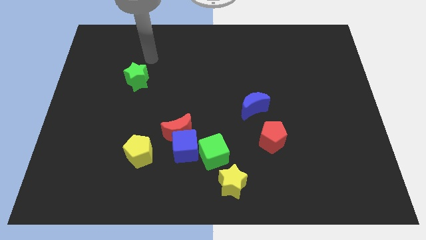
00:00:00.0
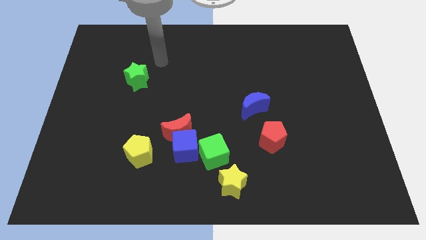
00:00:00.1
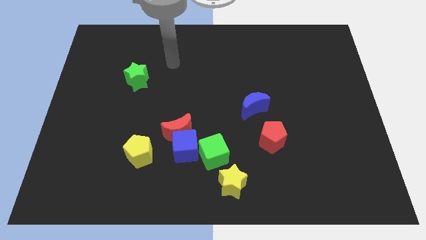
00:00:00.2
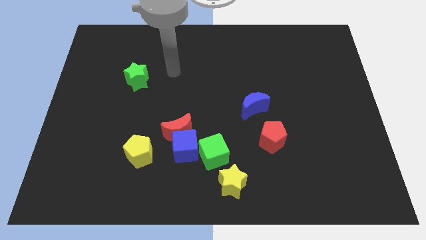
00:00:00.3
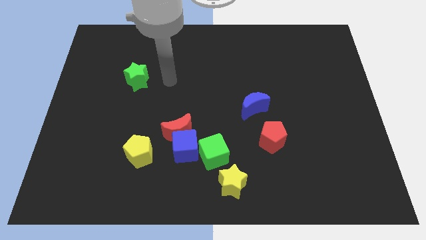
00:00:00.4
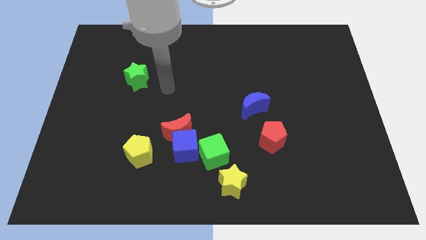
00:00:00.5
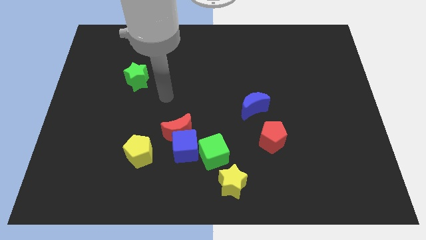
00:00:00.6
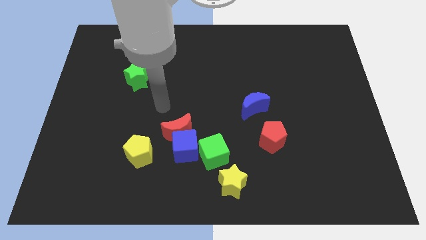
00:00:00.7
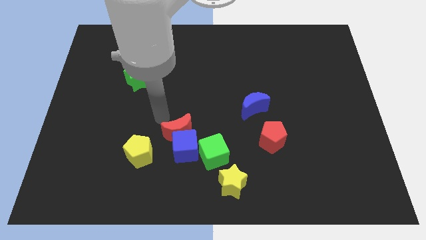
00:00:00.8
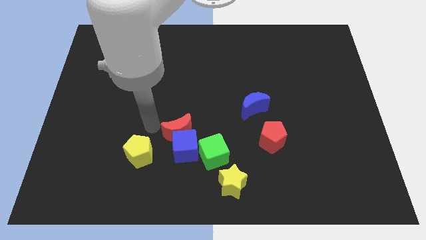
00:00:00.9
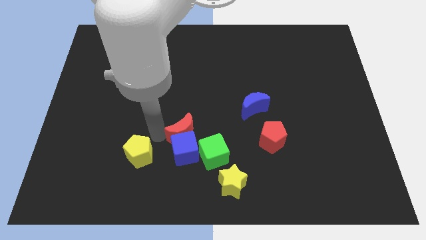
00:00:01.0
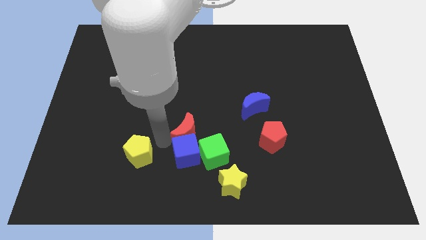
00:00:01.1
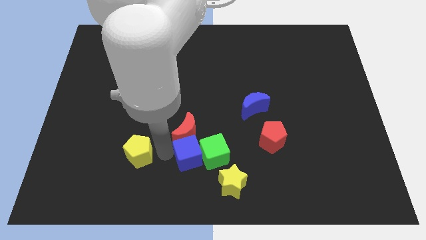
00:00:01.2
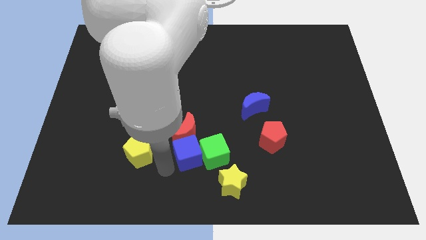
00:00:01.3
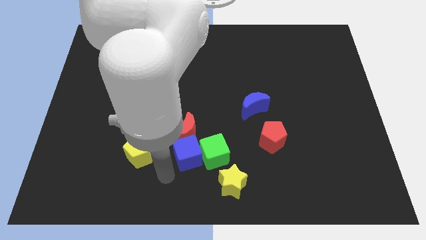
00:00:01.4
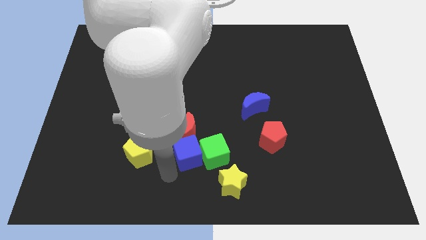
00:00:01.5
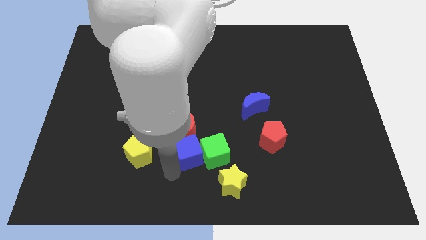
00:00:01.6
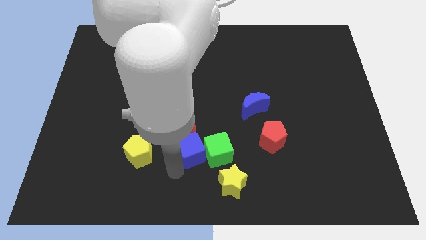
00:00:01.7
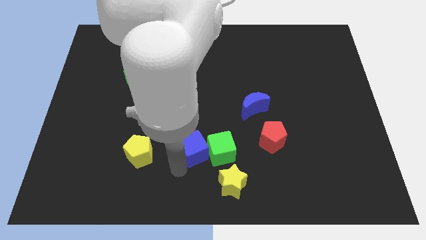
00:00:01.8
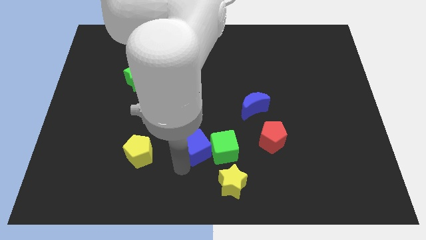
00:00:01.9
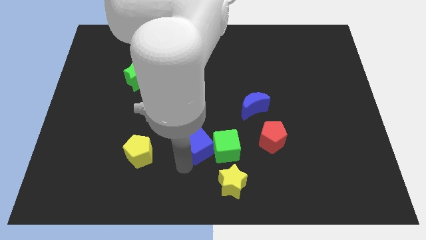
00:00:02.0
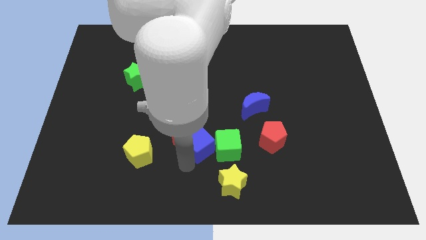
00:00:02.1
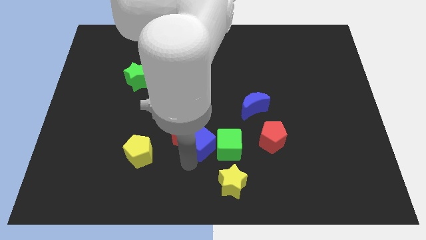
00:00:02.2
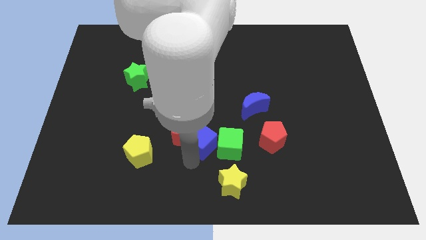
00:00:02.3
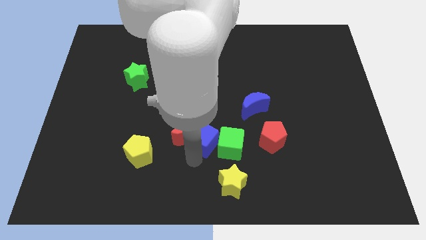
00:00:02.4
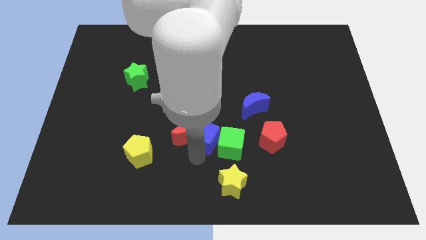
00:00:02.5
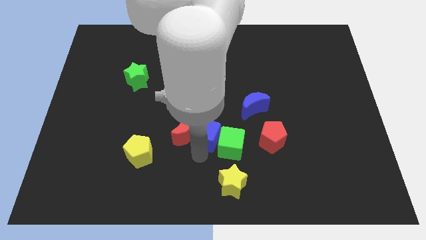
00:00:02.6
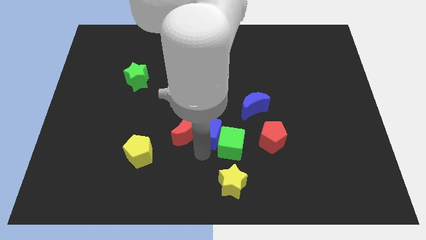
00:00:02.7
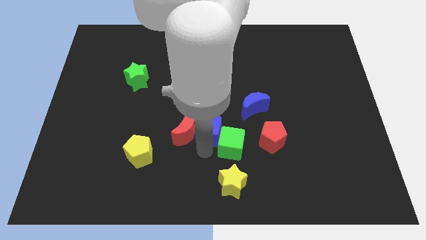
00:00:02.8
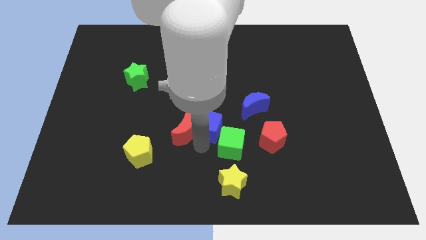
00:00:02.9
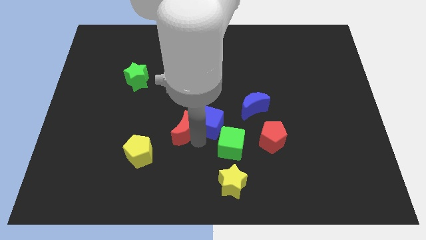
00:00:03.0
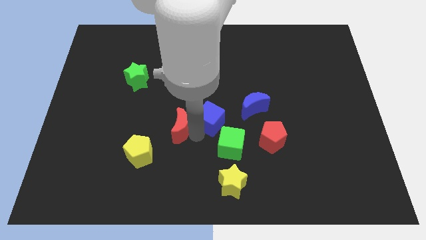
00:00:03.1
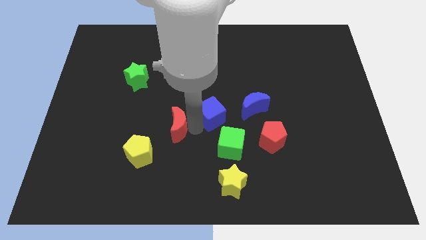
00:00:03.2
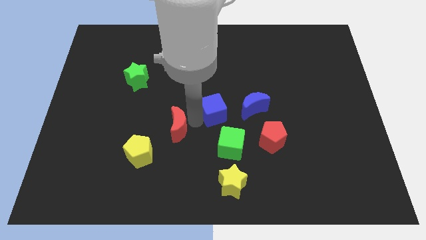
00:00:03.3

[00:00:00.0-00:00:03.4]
pull the blue cube apart from the group of blocks

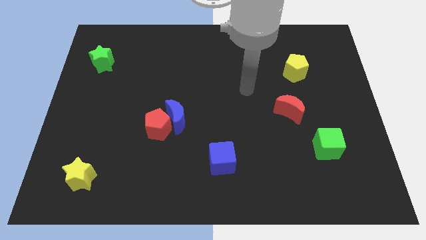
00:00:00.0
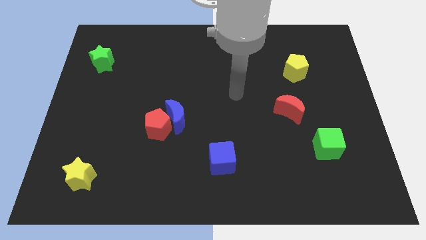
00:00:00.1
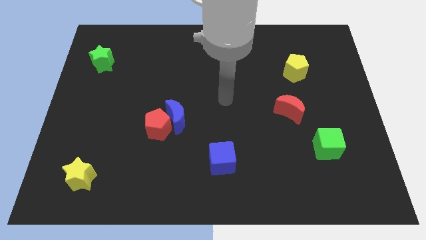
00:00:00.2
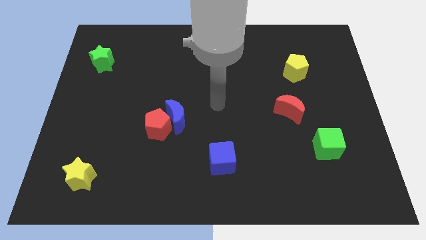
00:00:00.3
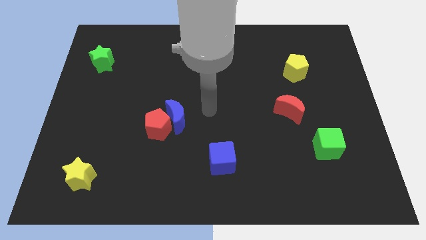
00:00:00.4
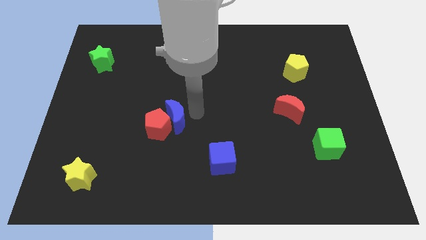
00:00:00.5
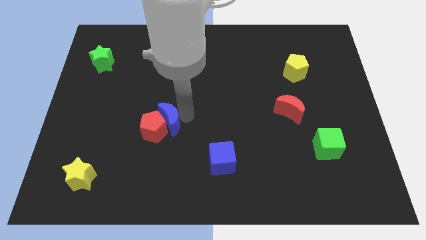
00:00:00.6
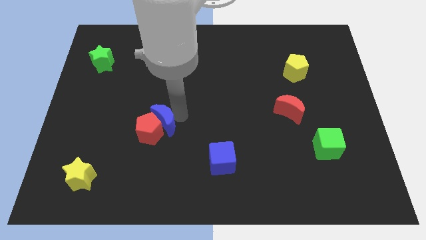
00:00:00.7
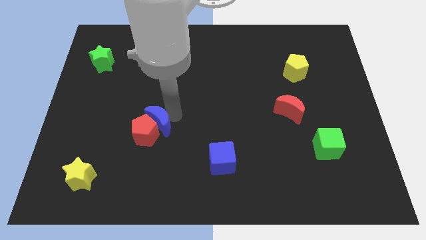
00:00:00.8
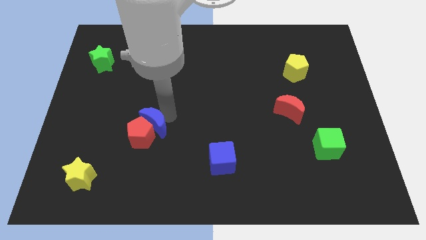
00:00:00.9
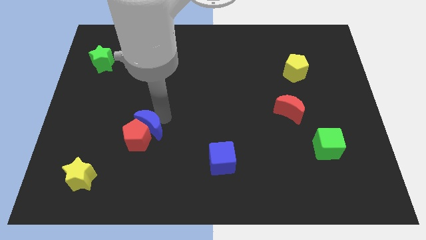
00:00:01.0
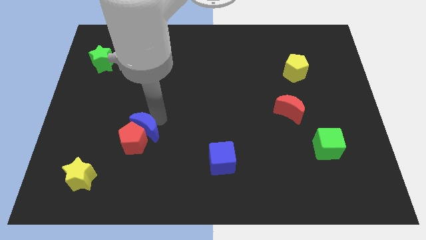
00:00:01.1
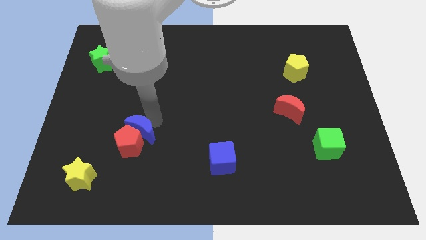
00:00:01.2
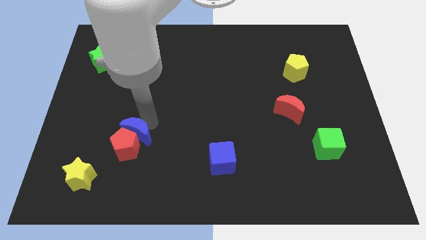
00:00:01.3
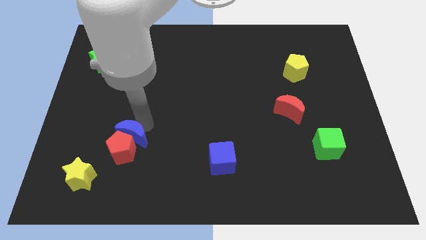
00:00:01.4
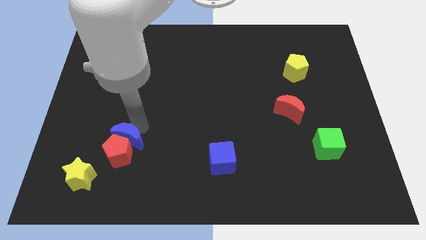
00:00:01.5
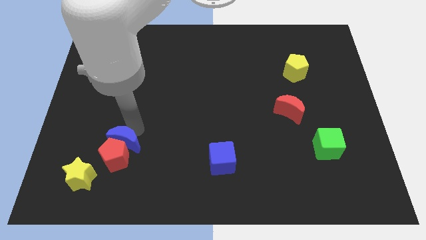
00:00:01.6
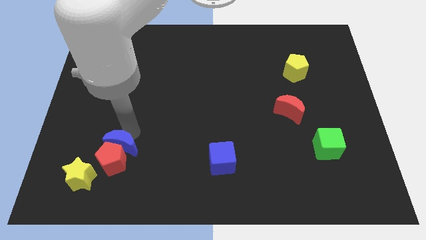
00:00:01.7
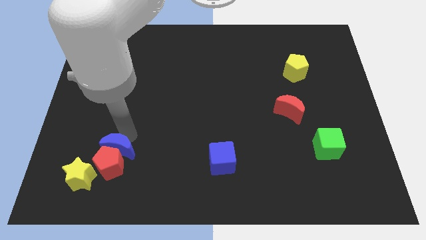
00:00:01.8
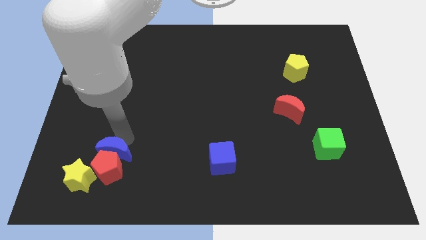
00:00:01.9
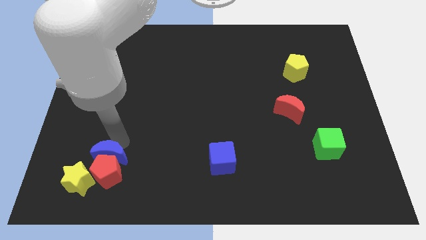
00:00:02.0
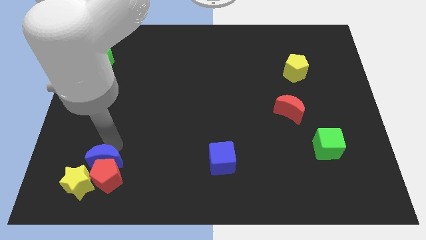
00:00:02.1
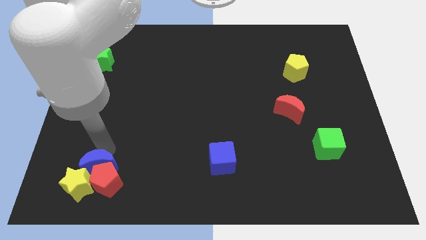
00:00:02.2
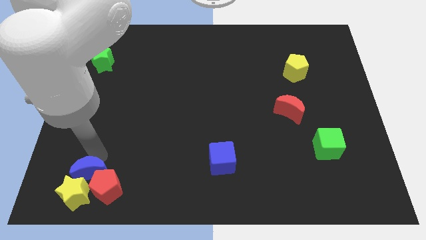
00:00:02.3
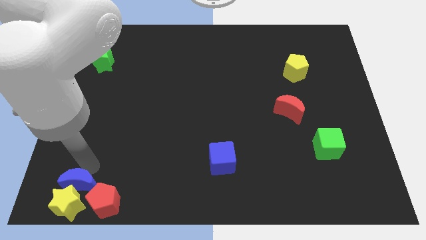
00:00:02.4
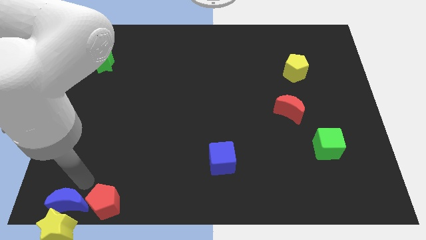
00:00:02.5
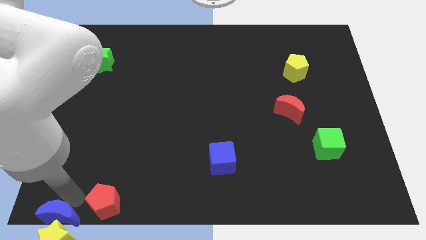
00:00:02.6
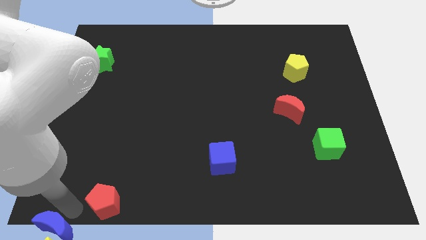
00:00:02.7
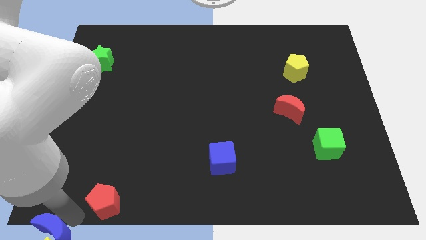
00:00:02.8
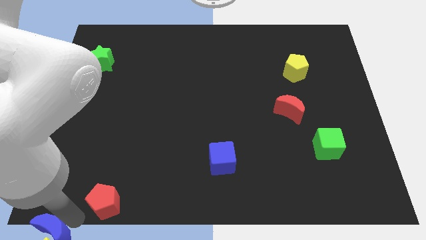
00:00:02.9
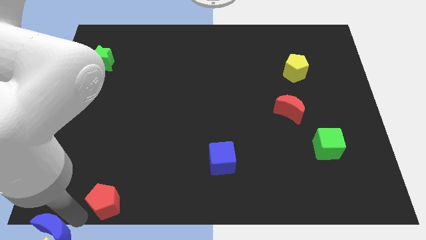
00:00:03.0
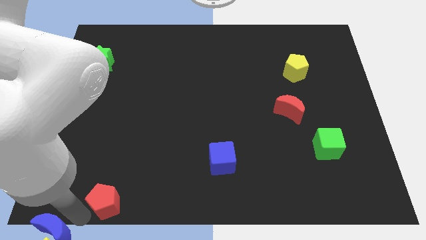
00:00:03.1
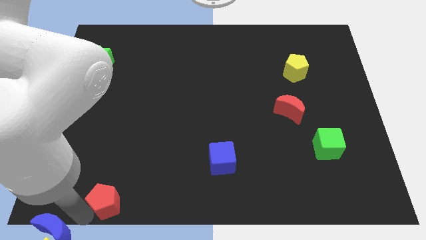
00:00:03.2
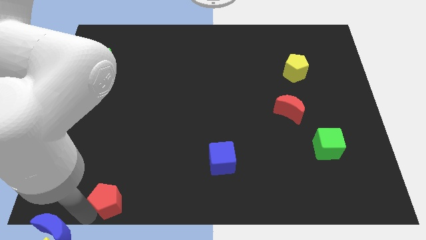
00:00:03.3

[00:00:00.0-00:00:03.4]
separate the red pentagon from the blue moon

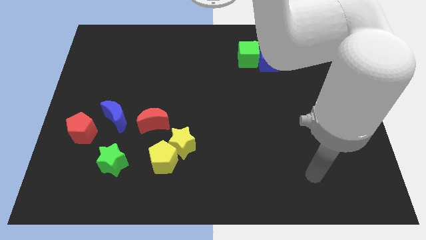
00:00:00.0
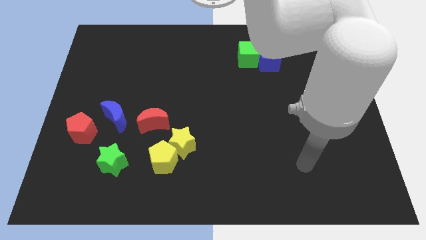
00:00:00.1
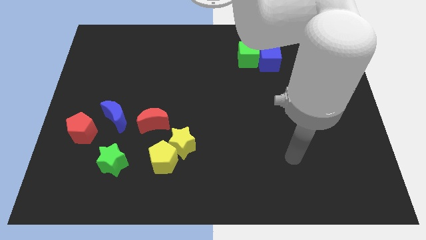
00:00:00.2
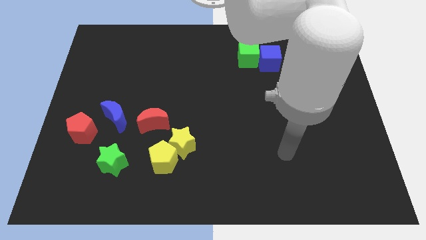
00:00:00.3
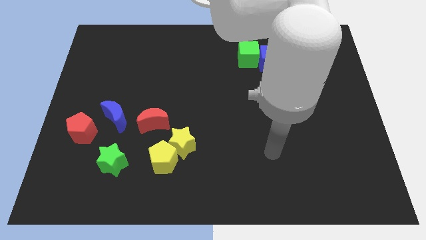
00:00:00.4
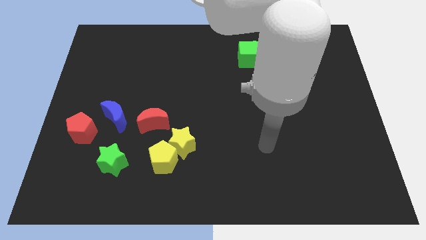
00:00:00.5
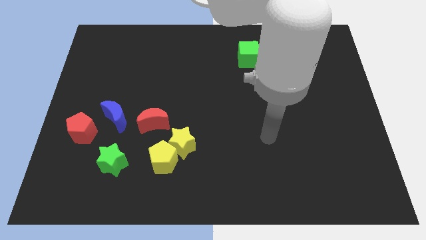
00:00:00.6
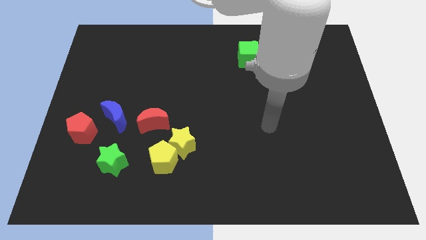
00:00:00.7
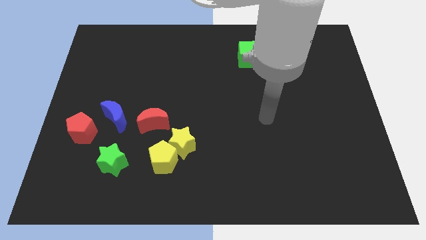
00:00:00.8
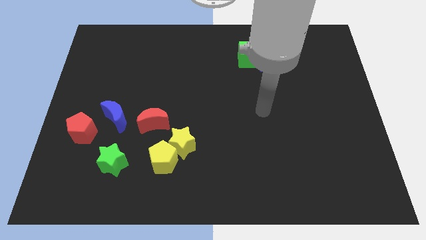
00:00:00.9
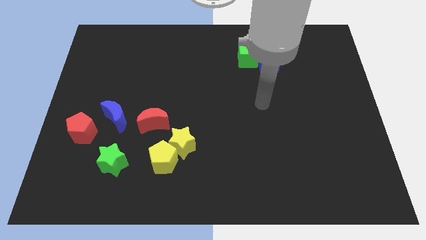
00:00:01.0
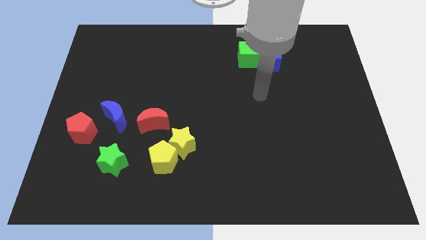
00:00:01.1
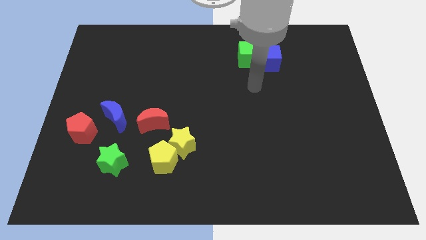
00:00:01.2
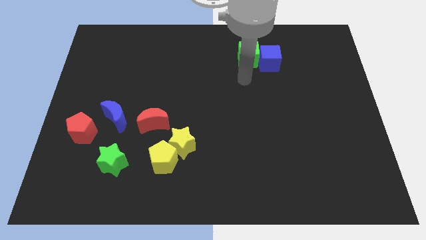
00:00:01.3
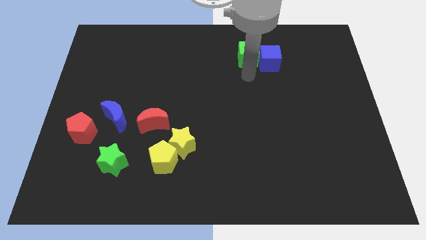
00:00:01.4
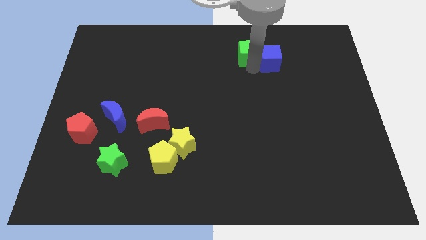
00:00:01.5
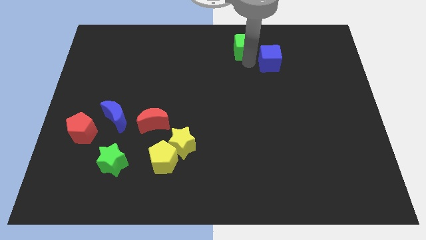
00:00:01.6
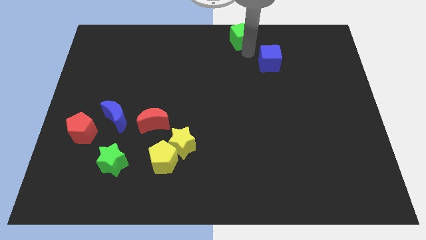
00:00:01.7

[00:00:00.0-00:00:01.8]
pull the blue cube apart from the green cube

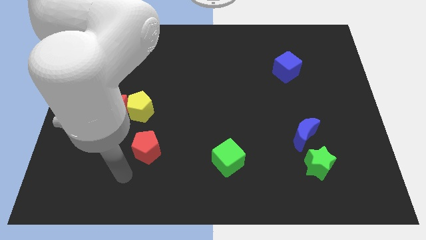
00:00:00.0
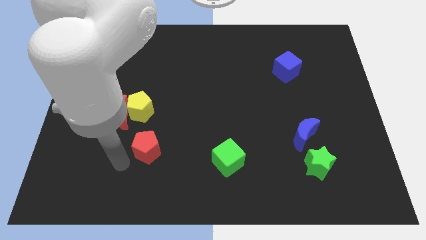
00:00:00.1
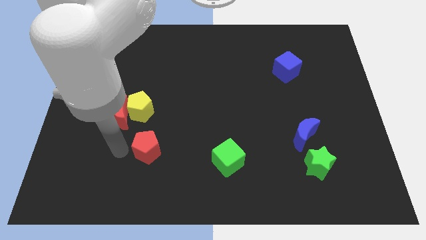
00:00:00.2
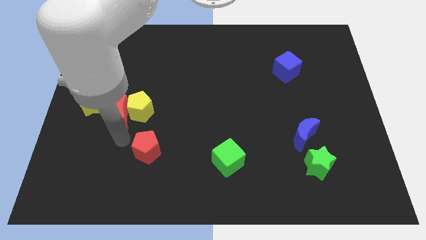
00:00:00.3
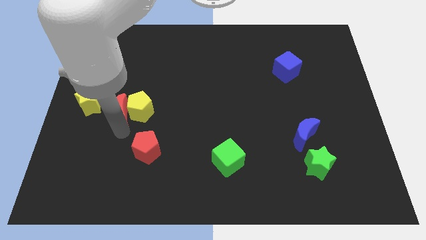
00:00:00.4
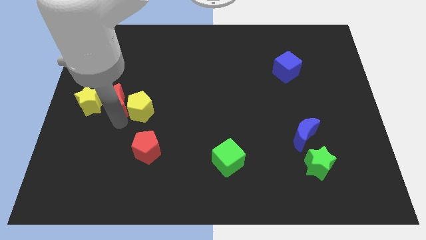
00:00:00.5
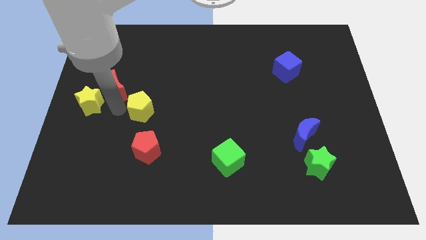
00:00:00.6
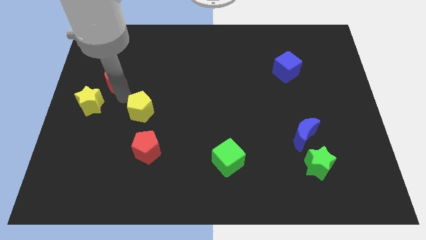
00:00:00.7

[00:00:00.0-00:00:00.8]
separate the yellow pentagon from the red moon
